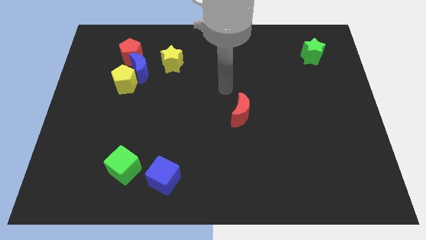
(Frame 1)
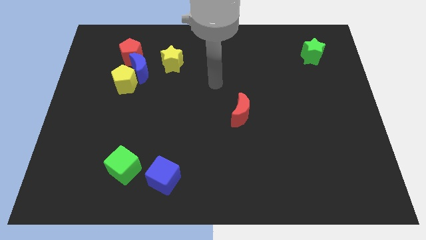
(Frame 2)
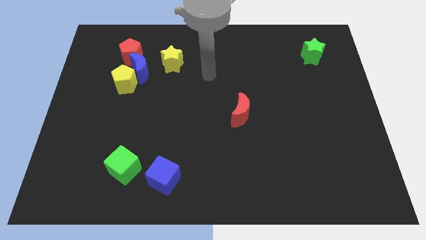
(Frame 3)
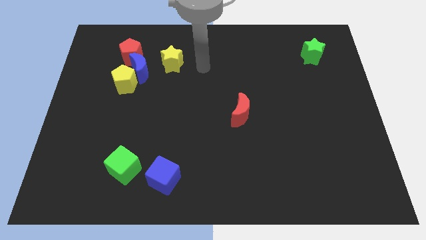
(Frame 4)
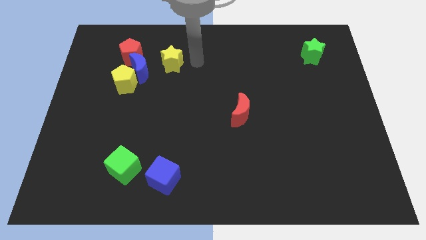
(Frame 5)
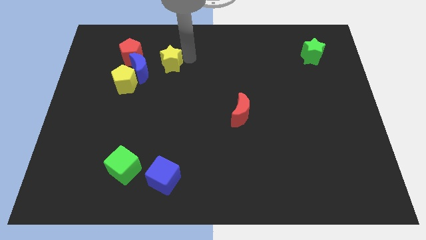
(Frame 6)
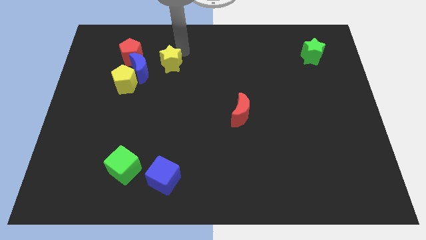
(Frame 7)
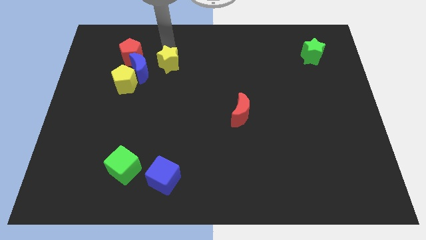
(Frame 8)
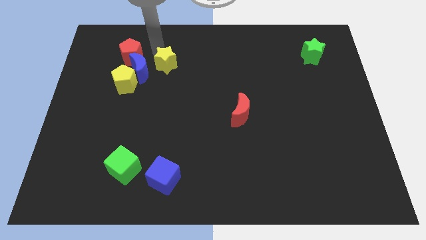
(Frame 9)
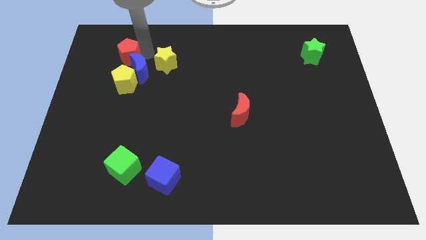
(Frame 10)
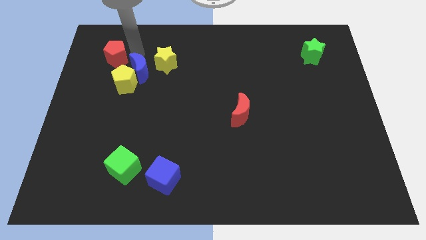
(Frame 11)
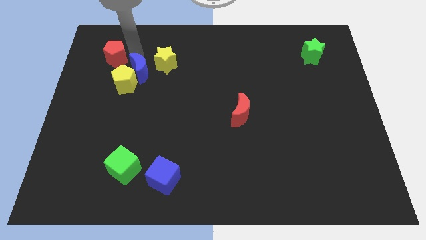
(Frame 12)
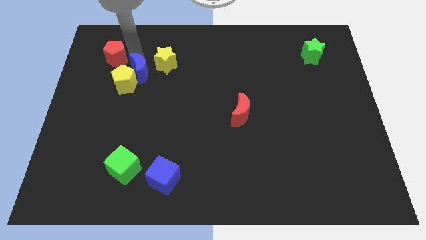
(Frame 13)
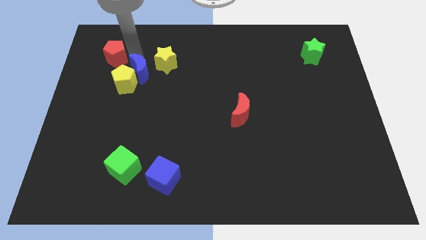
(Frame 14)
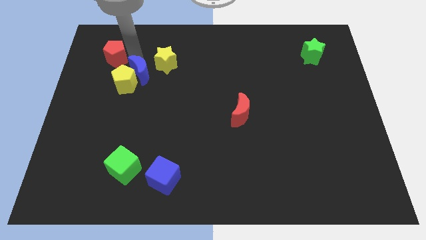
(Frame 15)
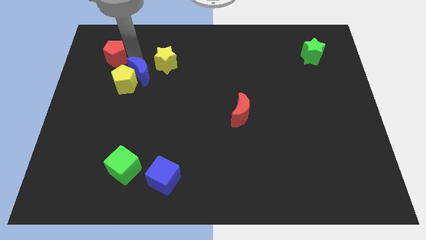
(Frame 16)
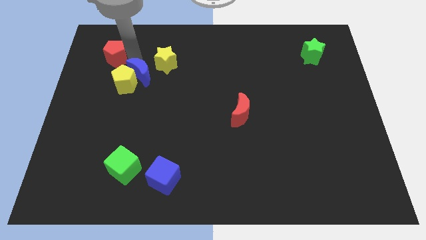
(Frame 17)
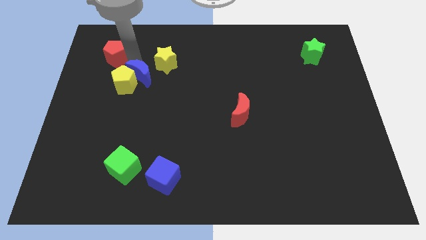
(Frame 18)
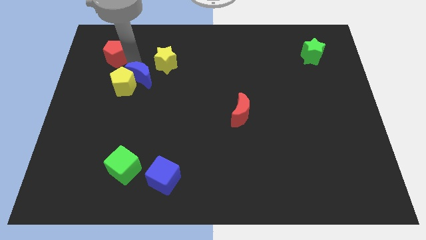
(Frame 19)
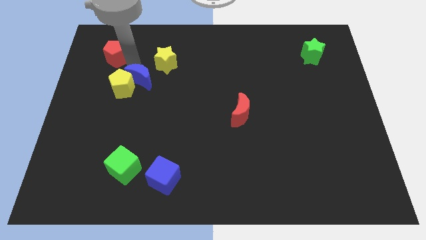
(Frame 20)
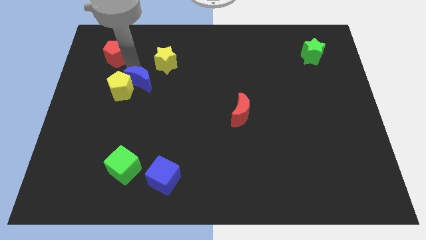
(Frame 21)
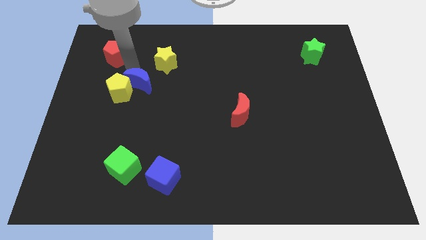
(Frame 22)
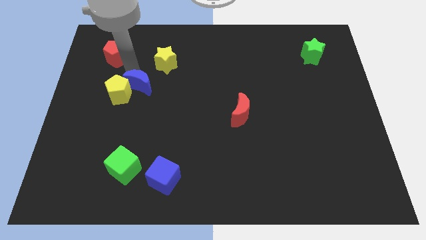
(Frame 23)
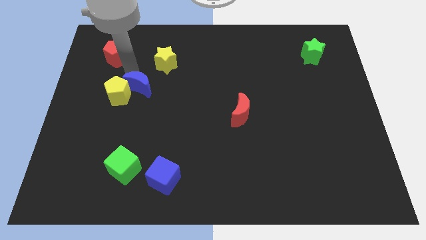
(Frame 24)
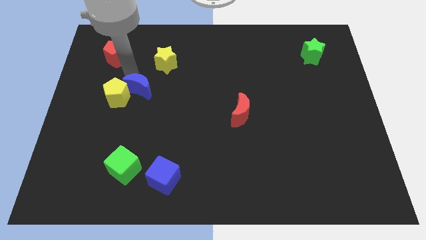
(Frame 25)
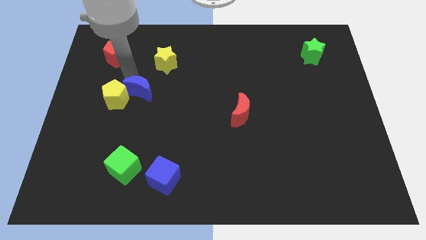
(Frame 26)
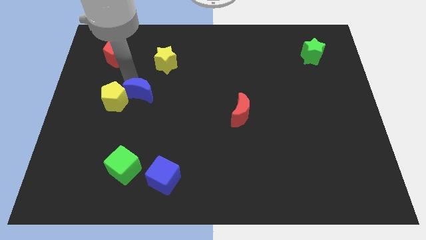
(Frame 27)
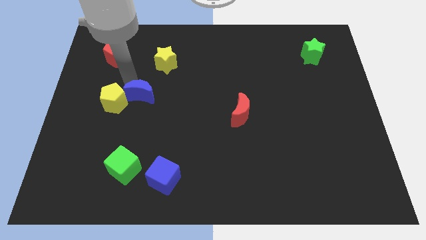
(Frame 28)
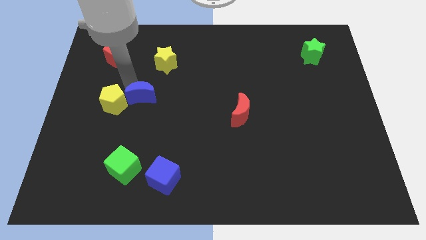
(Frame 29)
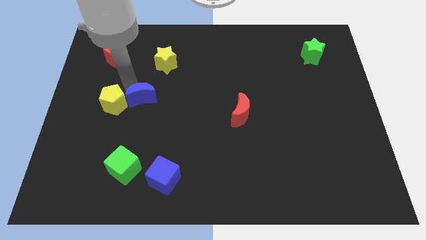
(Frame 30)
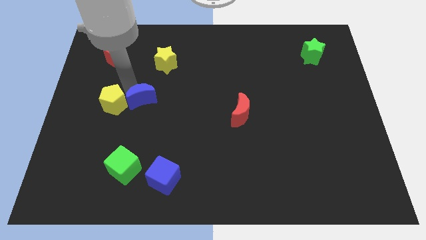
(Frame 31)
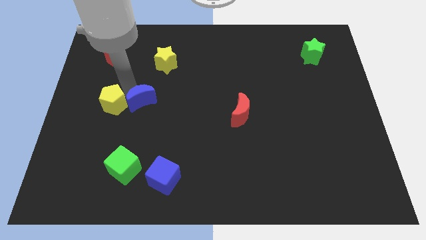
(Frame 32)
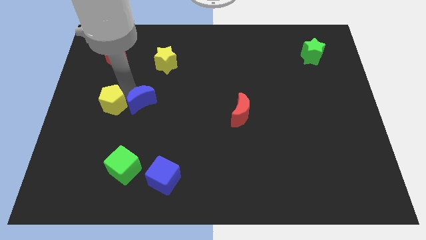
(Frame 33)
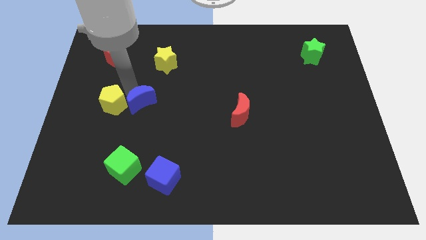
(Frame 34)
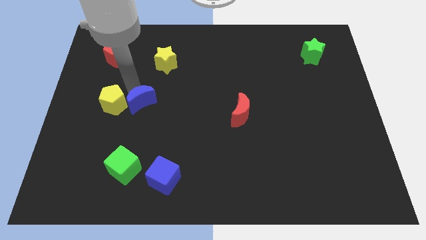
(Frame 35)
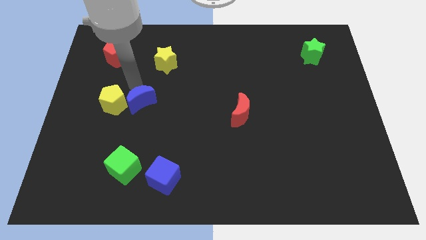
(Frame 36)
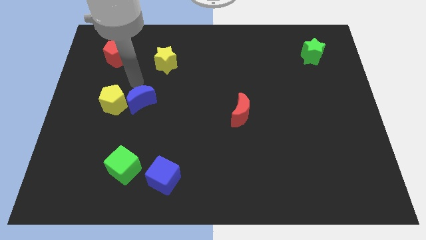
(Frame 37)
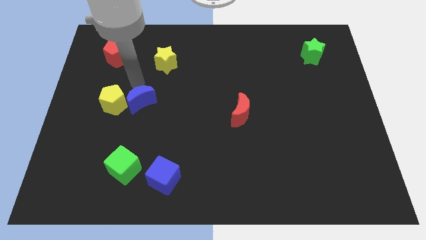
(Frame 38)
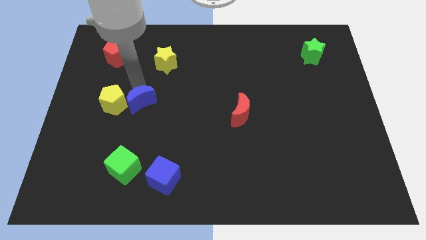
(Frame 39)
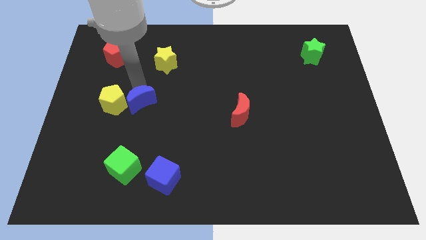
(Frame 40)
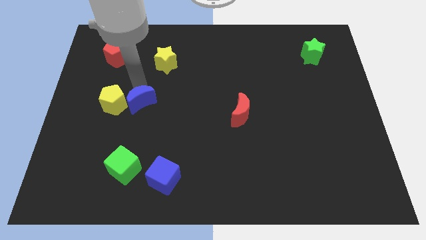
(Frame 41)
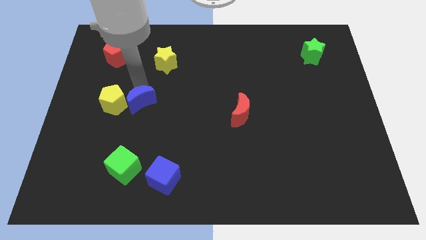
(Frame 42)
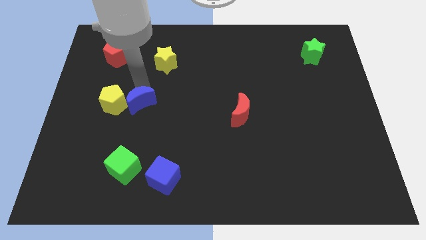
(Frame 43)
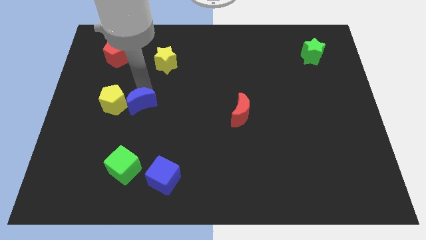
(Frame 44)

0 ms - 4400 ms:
pull the blue moon apart from the group of blocks

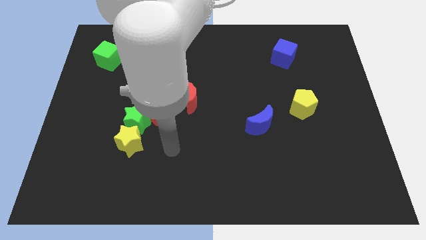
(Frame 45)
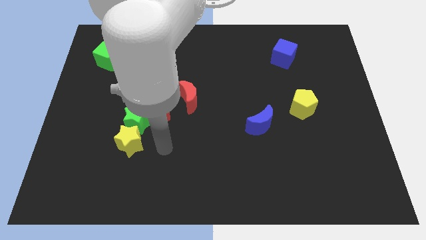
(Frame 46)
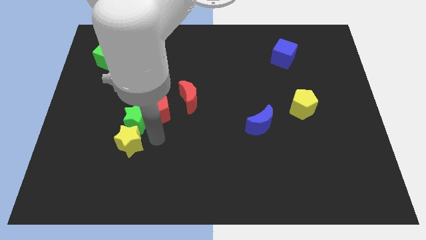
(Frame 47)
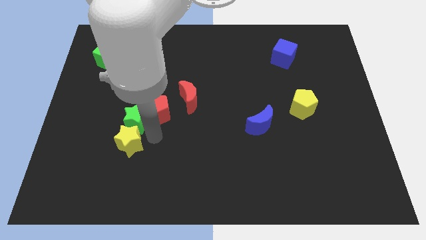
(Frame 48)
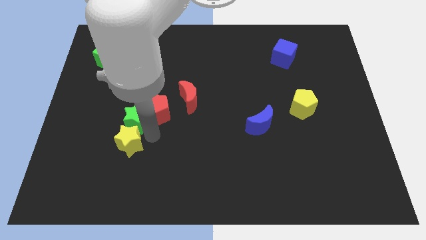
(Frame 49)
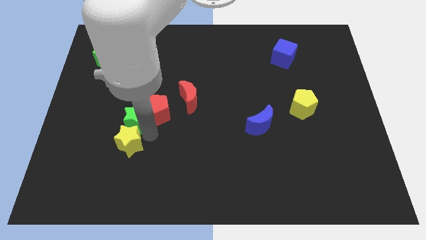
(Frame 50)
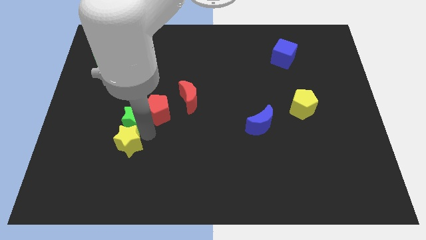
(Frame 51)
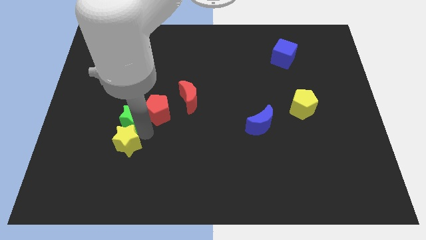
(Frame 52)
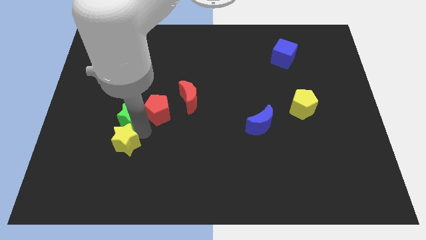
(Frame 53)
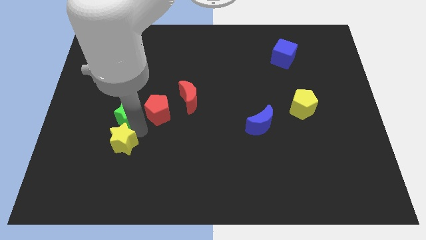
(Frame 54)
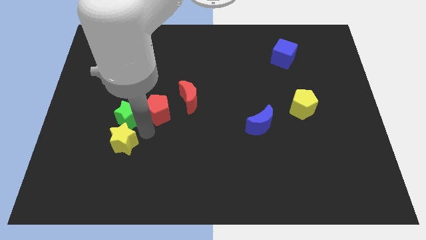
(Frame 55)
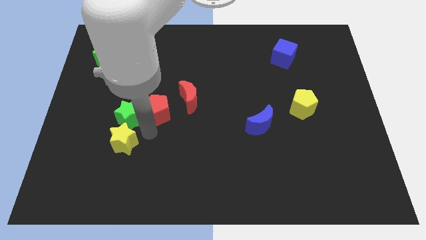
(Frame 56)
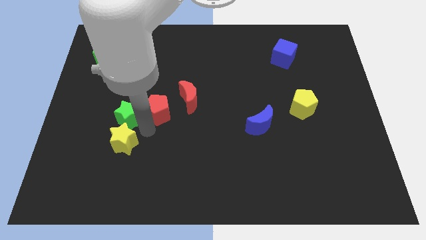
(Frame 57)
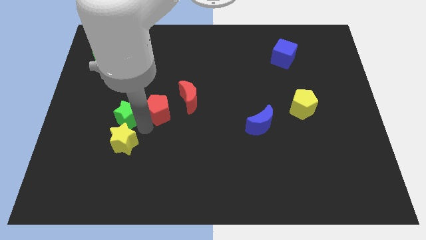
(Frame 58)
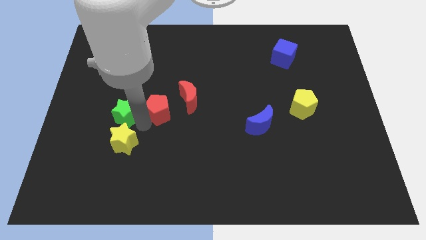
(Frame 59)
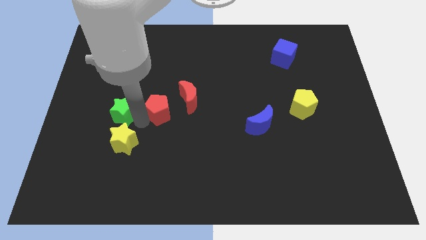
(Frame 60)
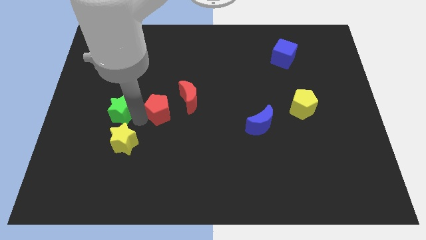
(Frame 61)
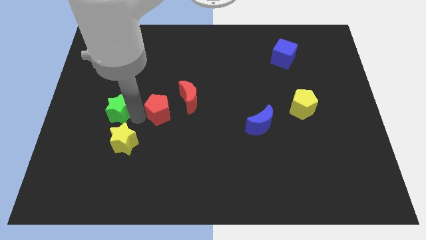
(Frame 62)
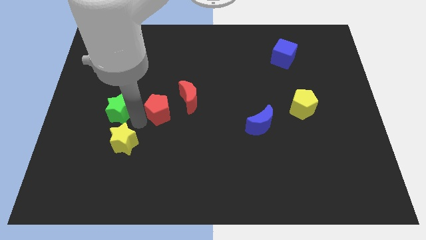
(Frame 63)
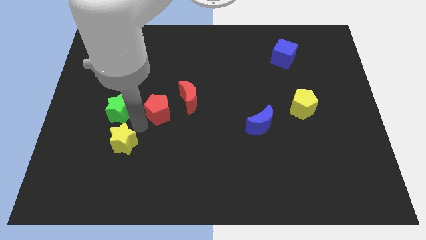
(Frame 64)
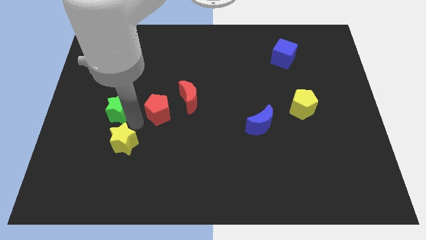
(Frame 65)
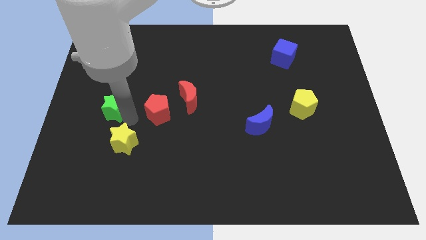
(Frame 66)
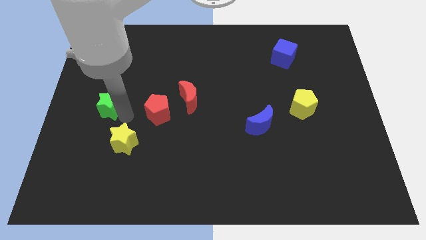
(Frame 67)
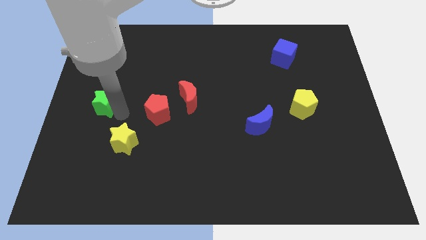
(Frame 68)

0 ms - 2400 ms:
separate the green star from the red pentagon and yellow star

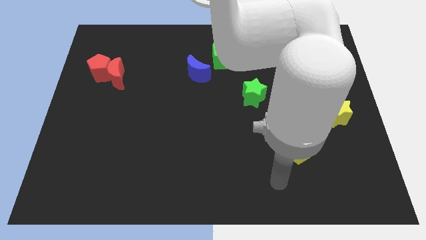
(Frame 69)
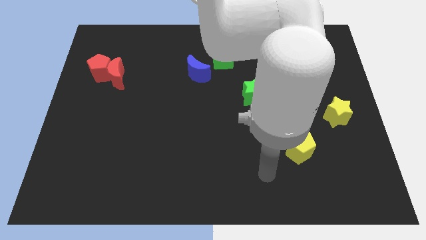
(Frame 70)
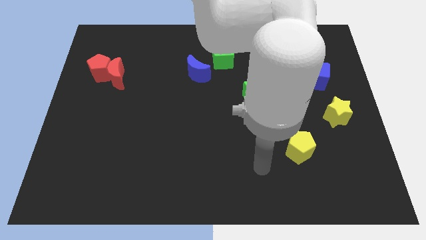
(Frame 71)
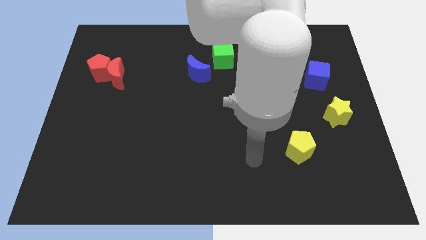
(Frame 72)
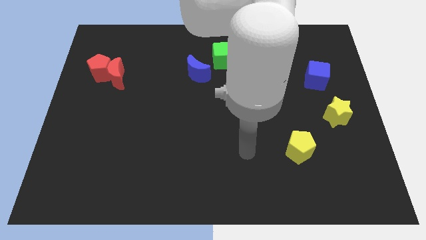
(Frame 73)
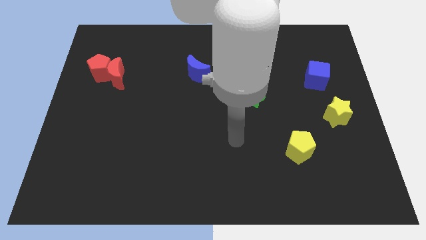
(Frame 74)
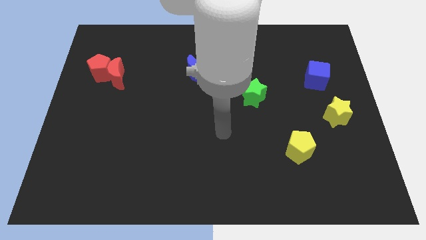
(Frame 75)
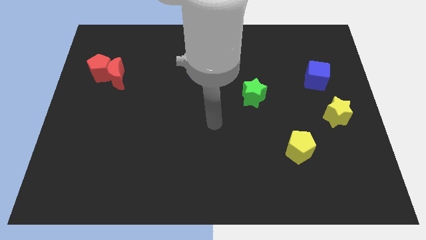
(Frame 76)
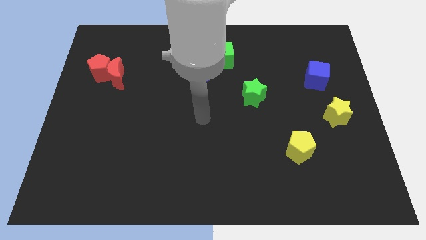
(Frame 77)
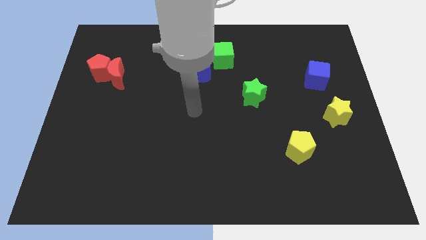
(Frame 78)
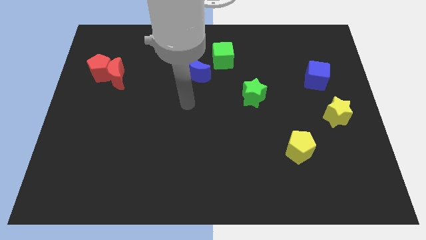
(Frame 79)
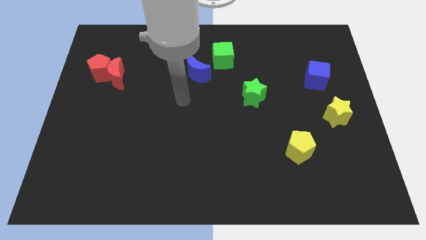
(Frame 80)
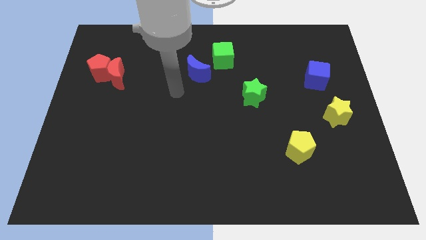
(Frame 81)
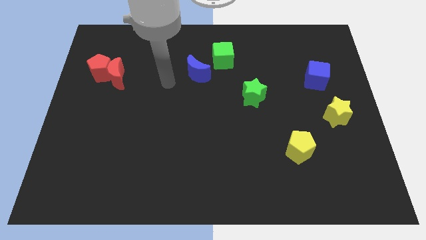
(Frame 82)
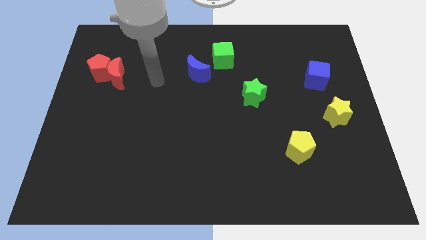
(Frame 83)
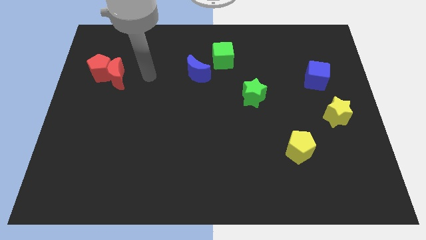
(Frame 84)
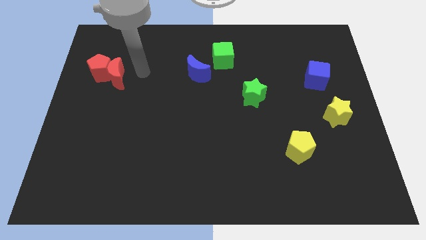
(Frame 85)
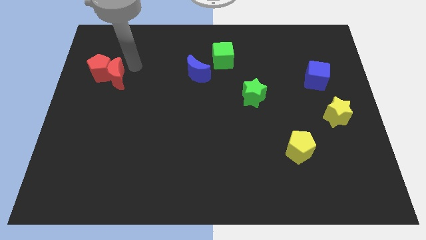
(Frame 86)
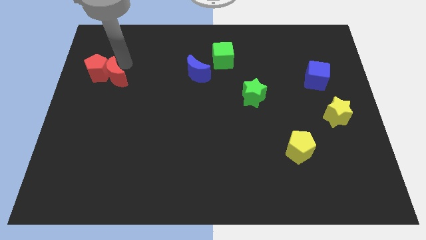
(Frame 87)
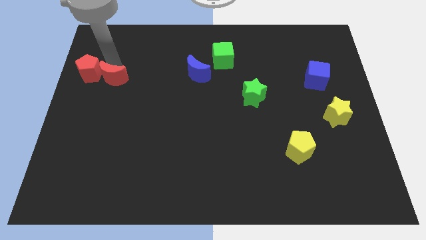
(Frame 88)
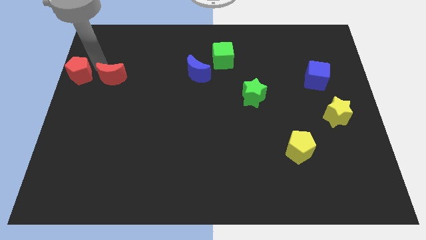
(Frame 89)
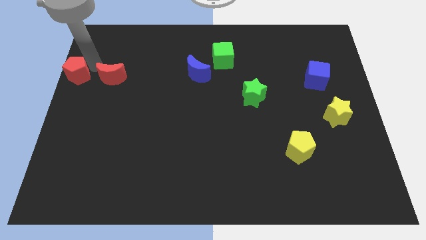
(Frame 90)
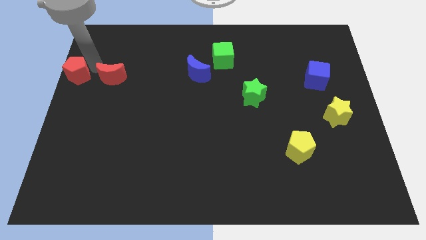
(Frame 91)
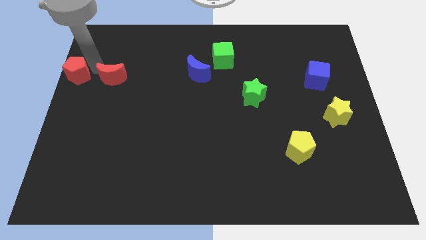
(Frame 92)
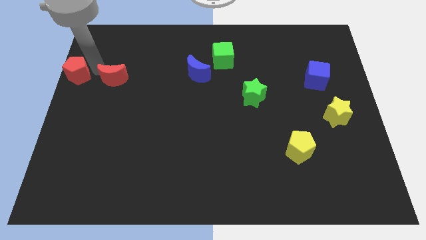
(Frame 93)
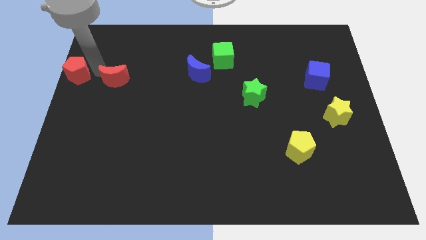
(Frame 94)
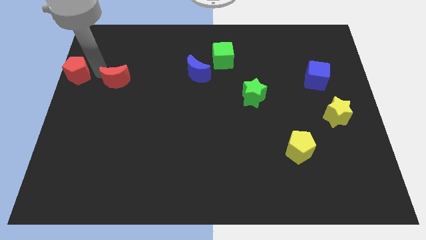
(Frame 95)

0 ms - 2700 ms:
pull the red moon apart from the red pentagon
